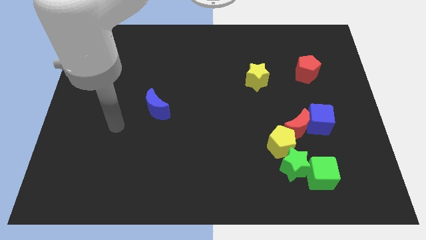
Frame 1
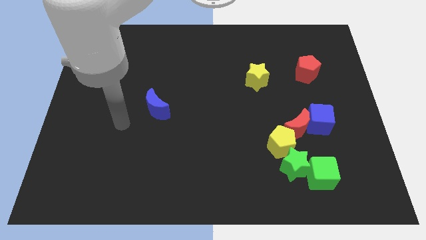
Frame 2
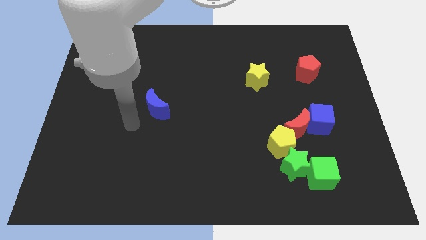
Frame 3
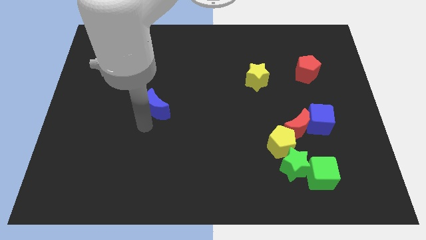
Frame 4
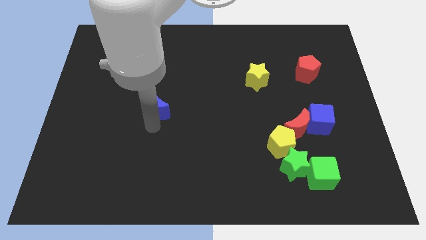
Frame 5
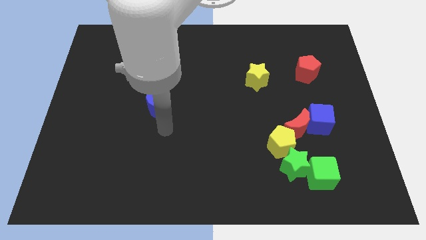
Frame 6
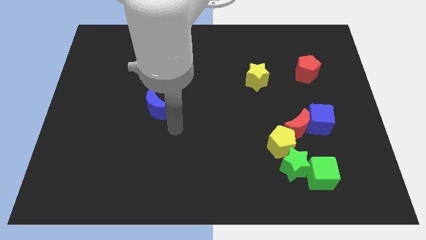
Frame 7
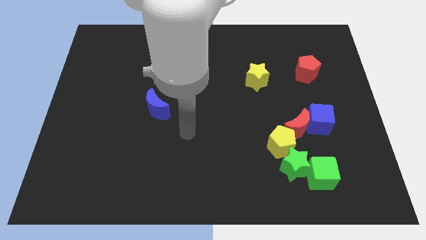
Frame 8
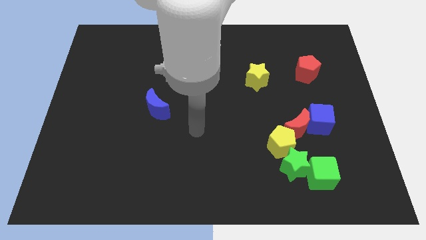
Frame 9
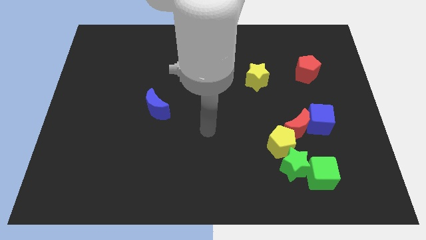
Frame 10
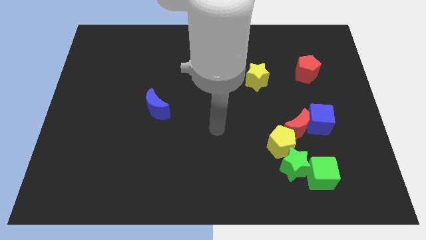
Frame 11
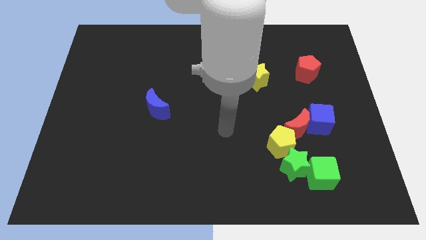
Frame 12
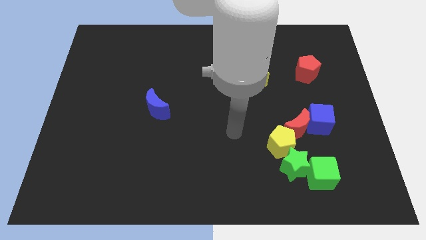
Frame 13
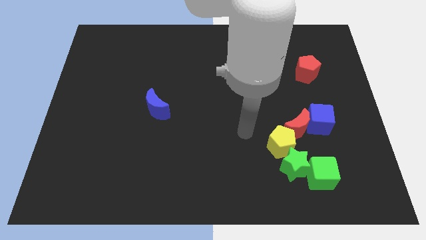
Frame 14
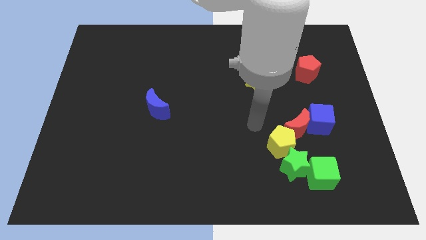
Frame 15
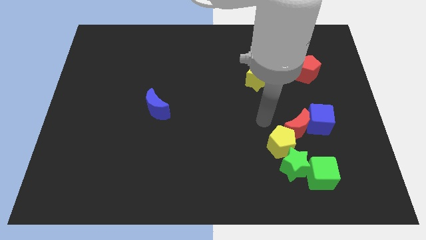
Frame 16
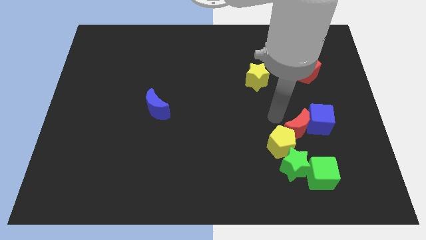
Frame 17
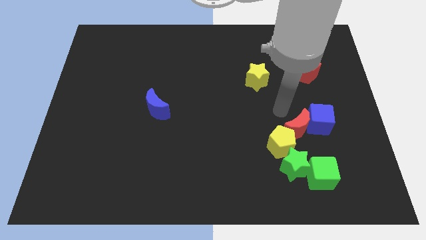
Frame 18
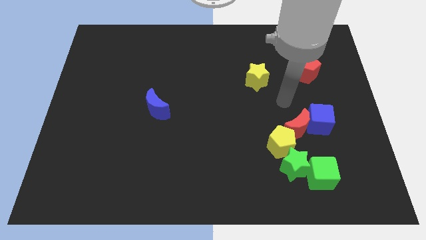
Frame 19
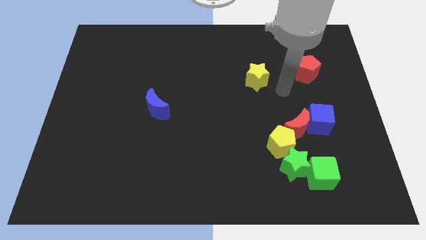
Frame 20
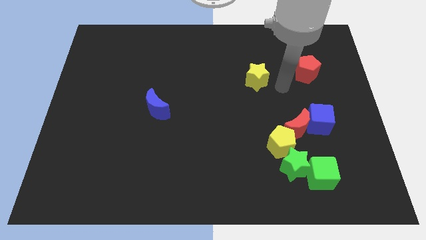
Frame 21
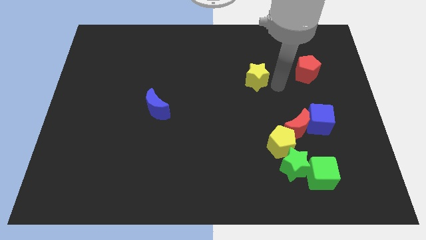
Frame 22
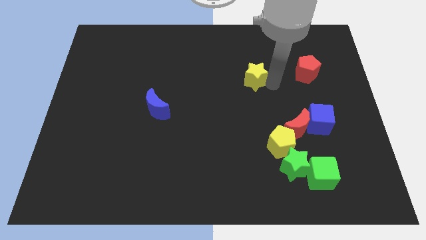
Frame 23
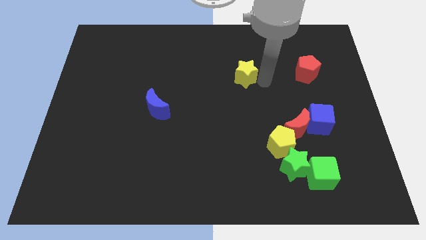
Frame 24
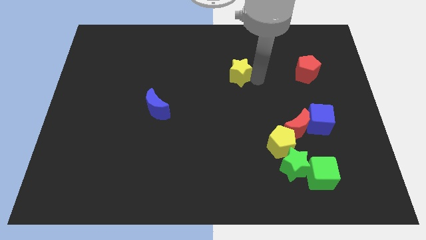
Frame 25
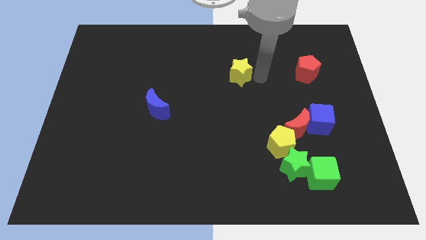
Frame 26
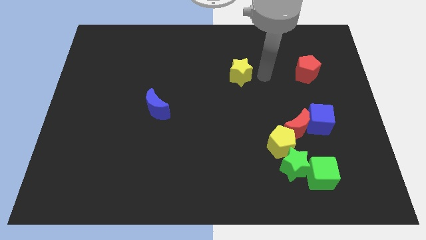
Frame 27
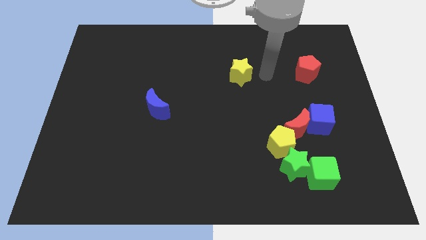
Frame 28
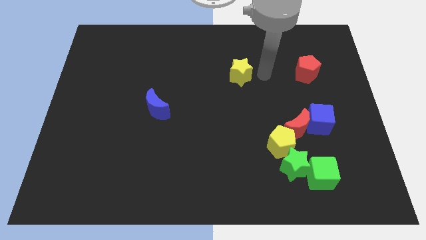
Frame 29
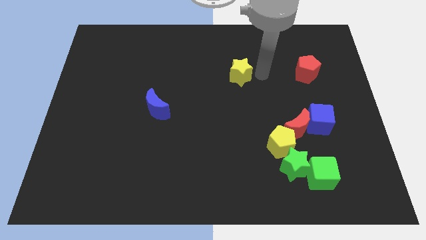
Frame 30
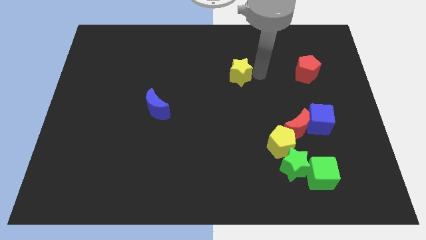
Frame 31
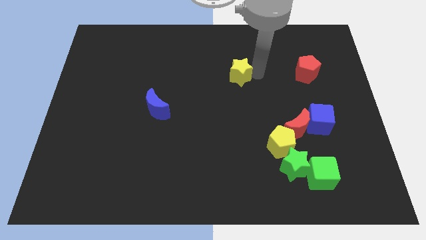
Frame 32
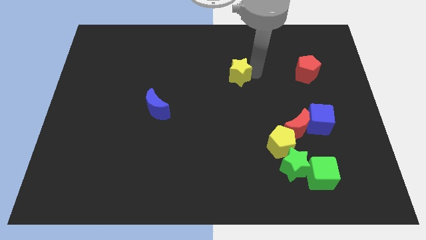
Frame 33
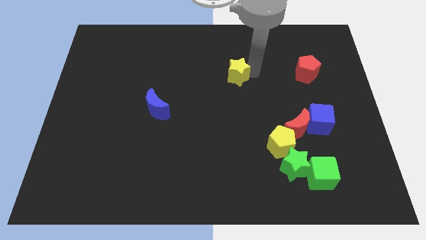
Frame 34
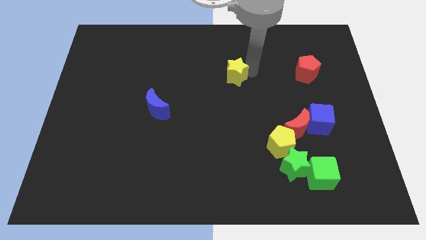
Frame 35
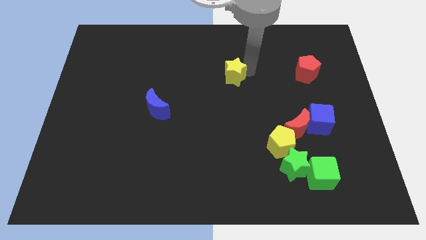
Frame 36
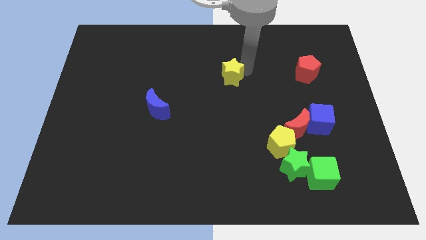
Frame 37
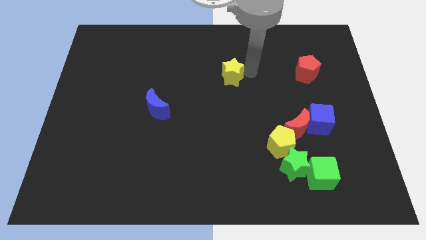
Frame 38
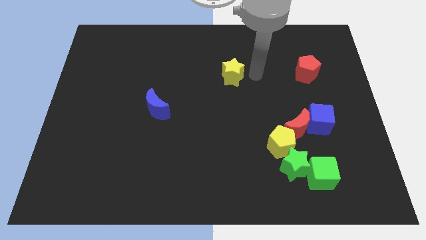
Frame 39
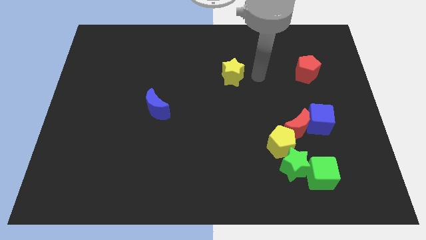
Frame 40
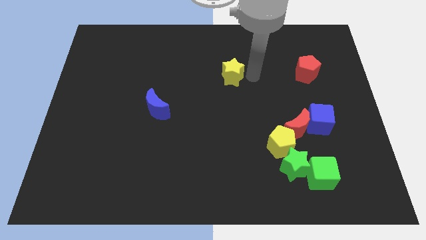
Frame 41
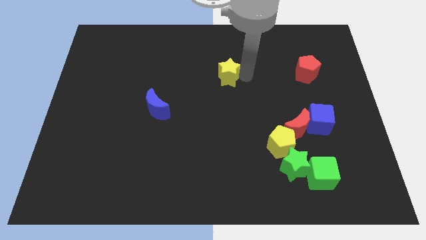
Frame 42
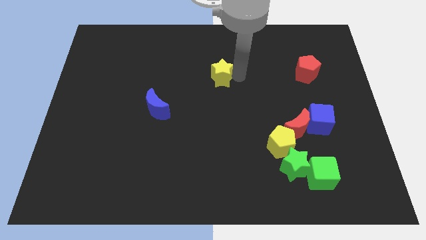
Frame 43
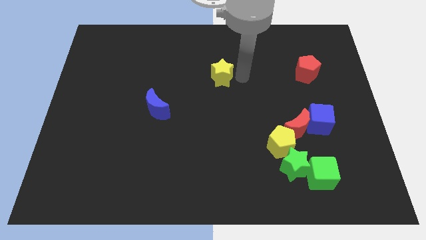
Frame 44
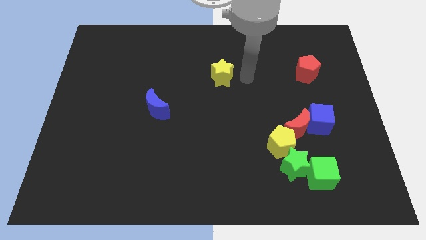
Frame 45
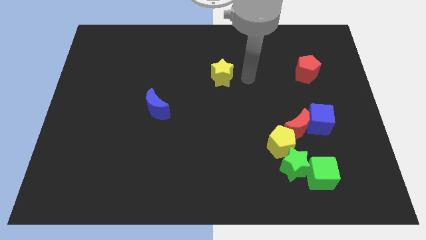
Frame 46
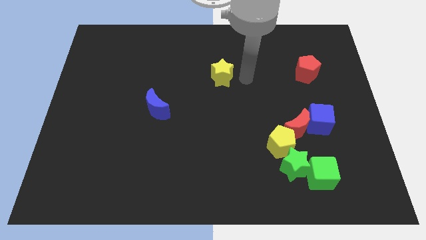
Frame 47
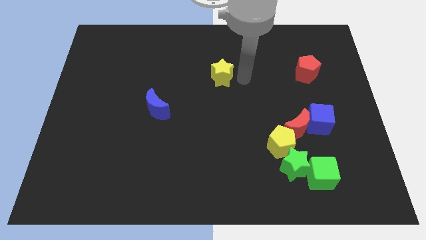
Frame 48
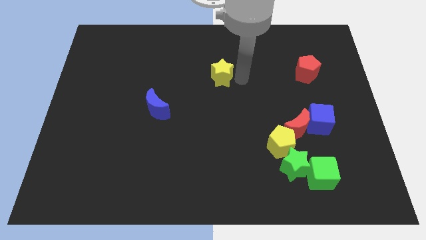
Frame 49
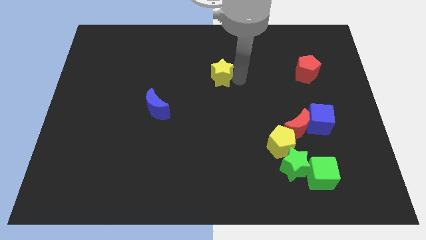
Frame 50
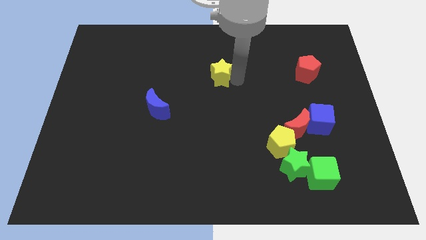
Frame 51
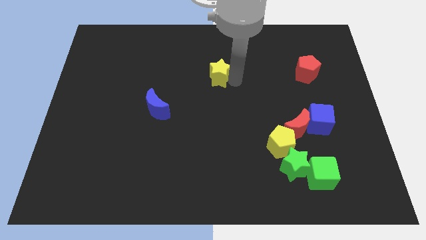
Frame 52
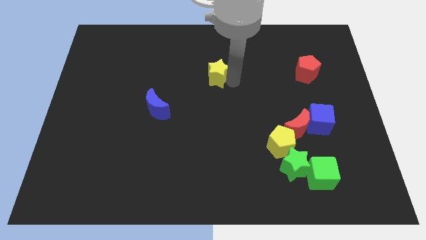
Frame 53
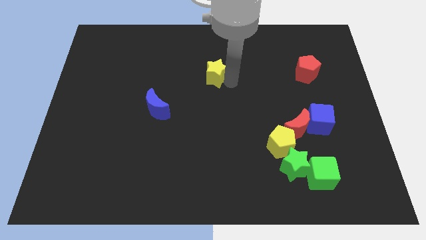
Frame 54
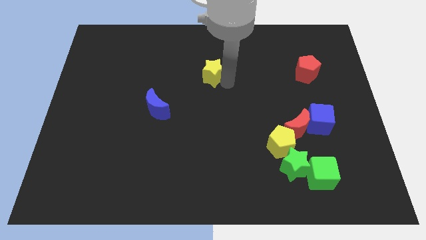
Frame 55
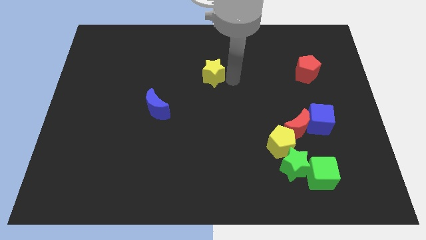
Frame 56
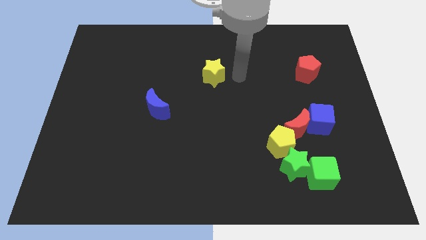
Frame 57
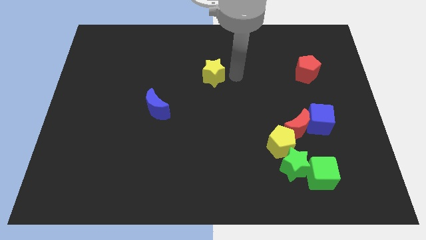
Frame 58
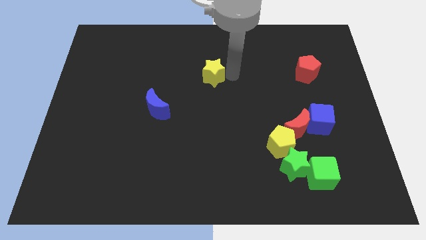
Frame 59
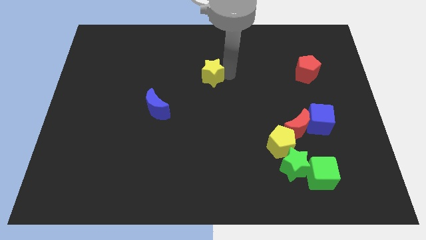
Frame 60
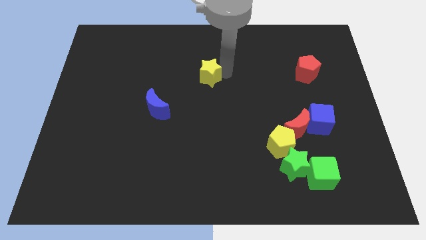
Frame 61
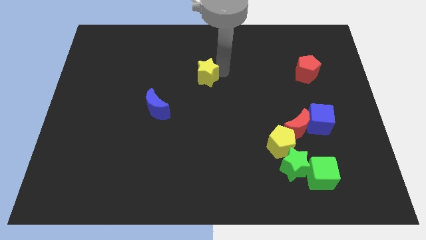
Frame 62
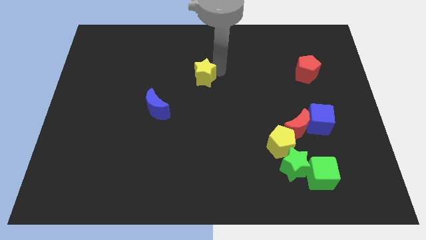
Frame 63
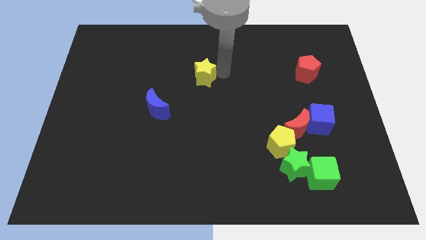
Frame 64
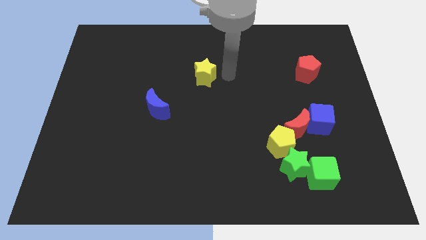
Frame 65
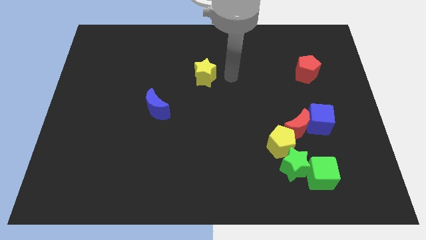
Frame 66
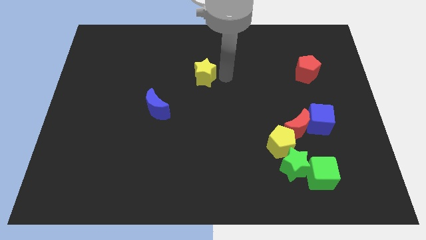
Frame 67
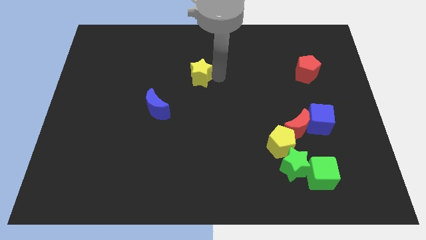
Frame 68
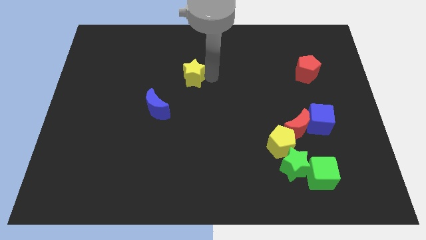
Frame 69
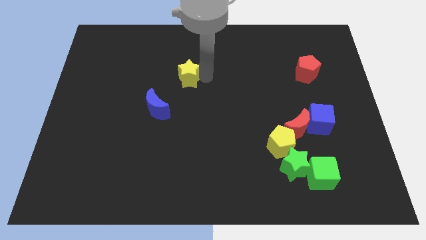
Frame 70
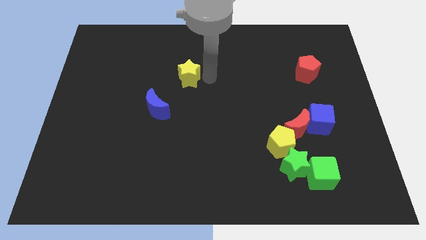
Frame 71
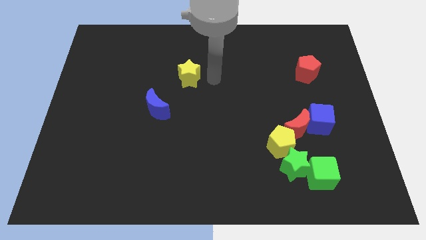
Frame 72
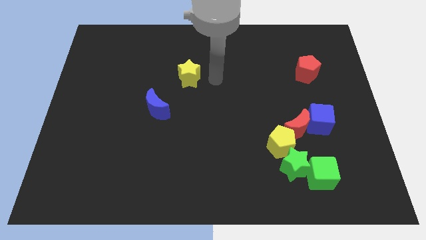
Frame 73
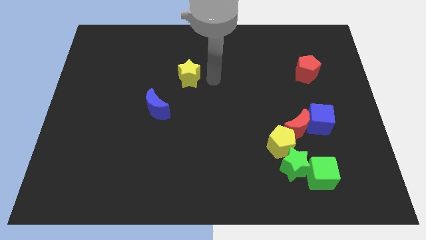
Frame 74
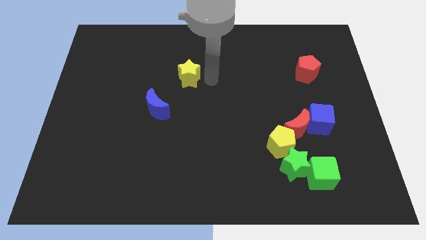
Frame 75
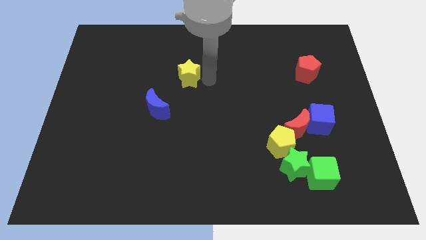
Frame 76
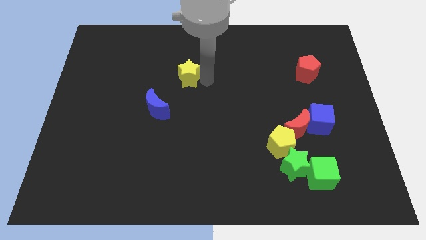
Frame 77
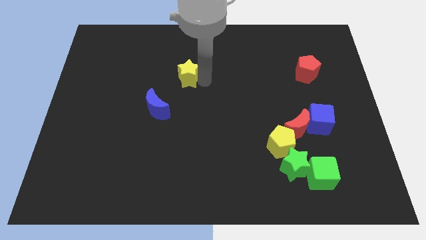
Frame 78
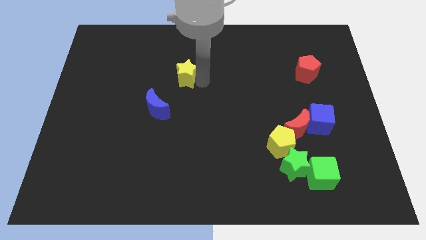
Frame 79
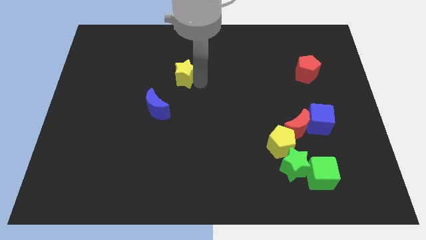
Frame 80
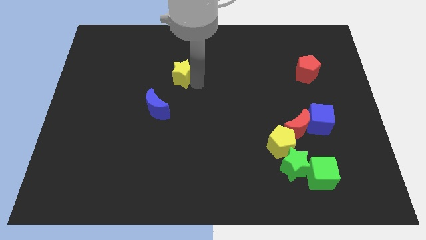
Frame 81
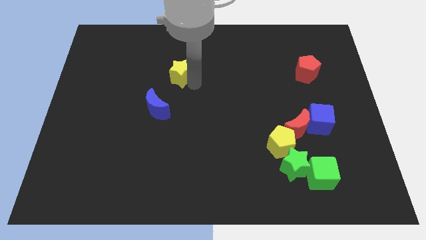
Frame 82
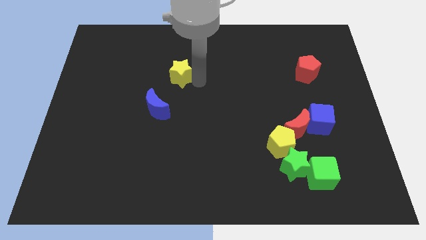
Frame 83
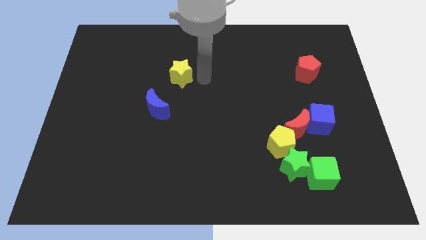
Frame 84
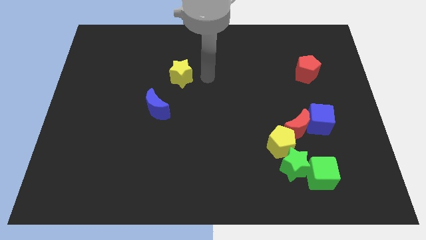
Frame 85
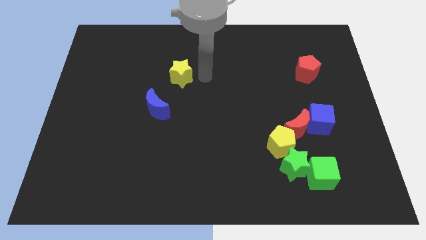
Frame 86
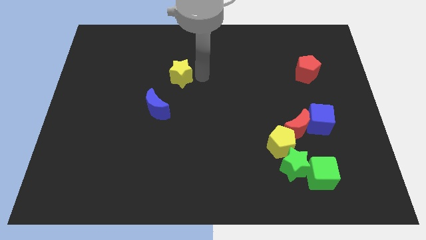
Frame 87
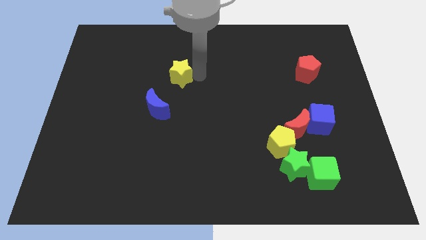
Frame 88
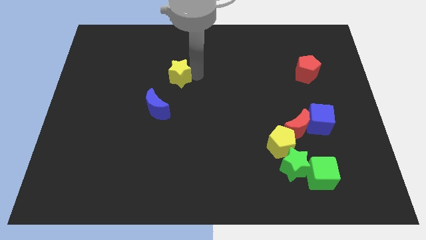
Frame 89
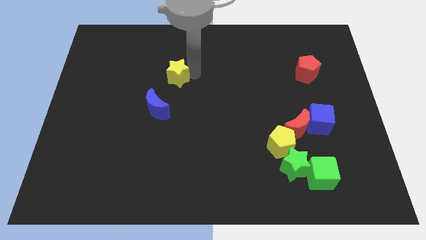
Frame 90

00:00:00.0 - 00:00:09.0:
put the yellow star to the top of the blue moon
